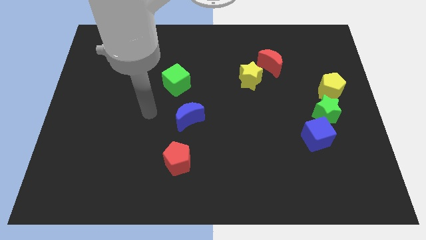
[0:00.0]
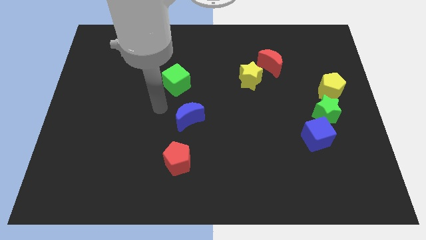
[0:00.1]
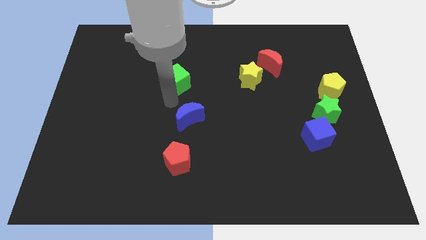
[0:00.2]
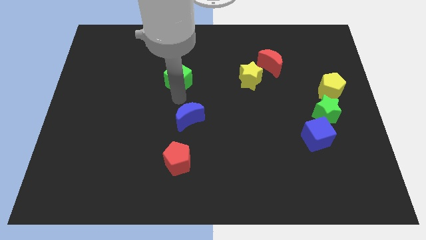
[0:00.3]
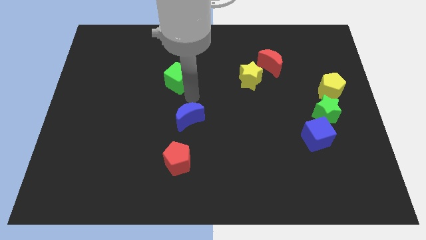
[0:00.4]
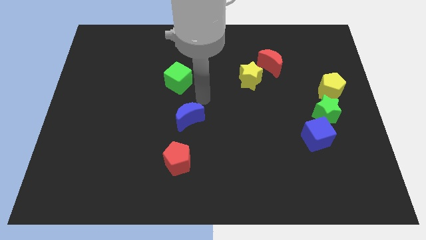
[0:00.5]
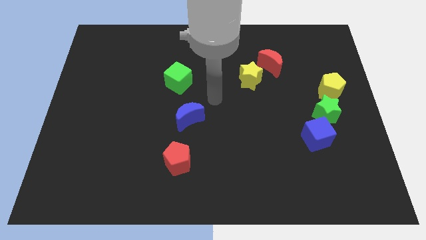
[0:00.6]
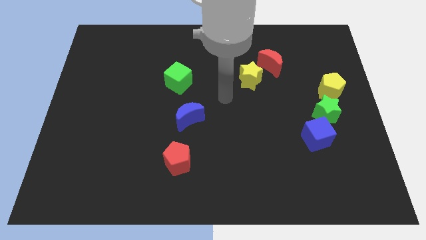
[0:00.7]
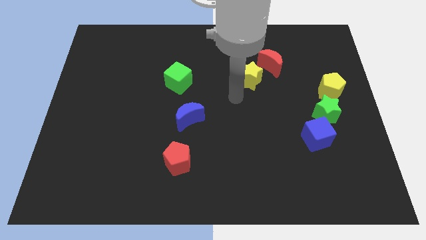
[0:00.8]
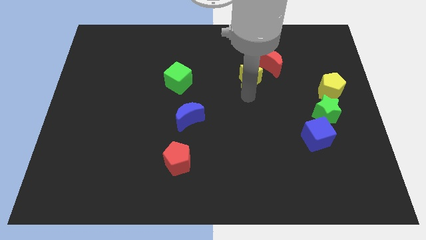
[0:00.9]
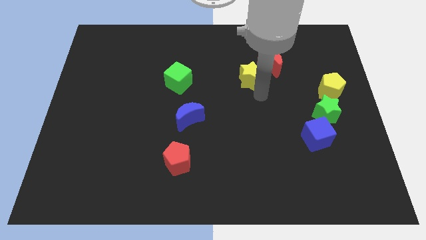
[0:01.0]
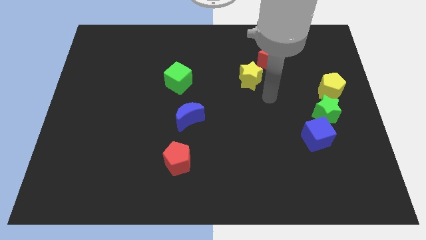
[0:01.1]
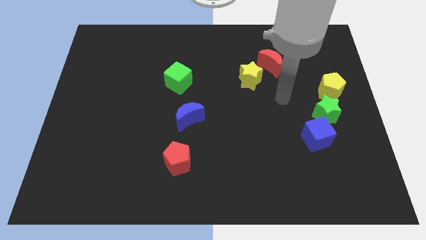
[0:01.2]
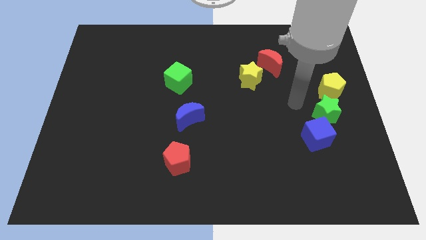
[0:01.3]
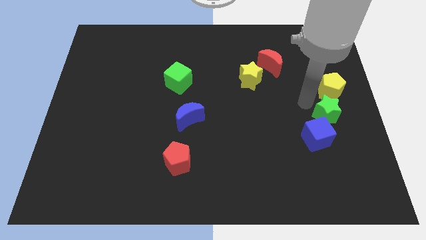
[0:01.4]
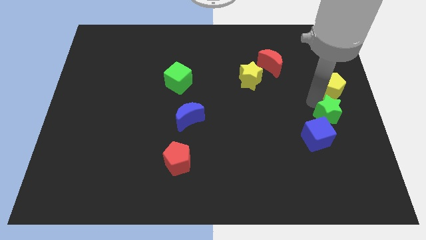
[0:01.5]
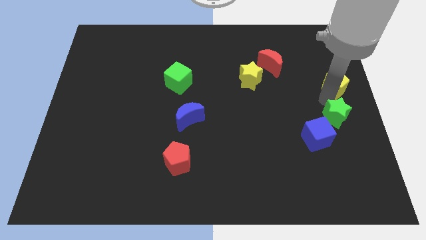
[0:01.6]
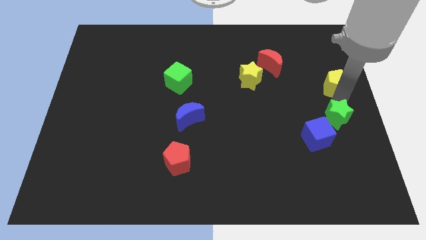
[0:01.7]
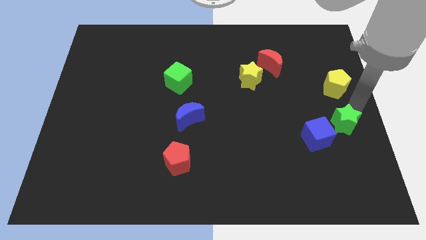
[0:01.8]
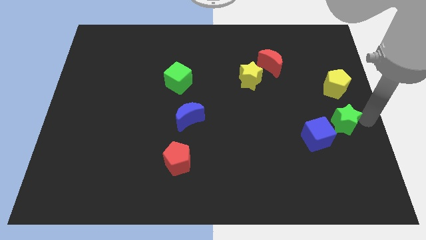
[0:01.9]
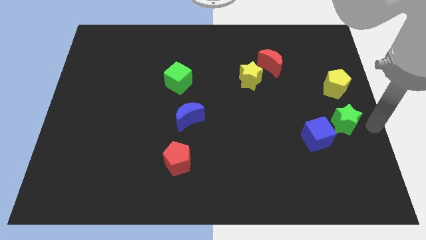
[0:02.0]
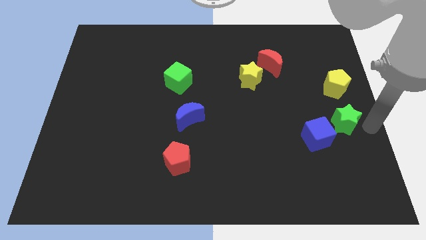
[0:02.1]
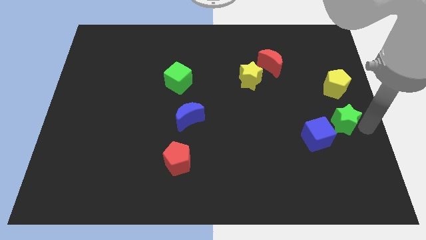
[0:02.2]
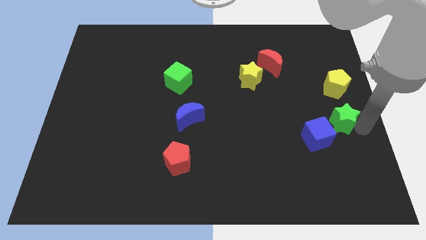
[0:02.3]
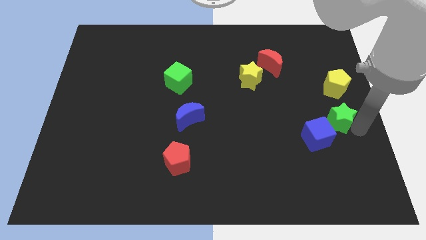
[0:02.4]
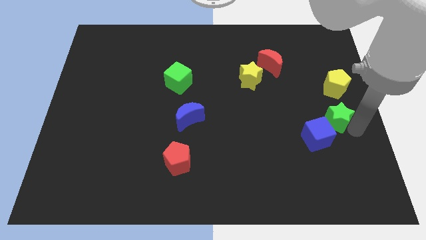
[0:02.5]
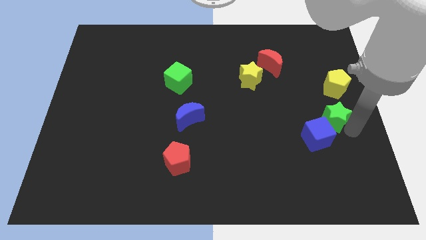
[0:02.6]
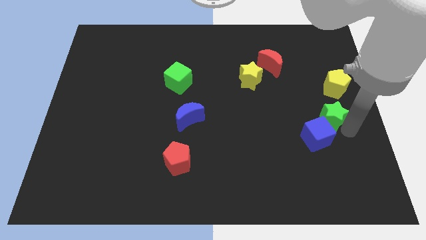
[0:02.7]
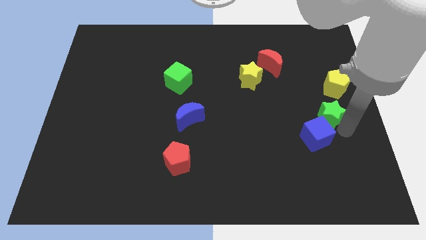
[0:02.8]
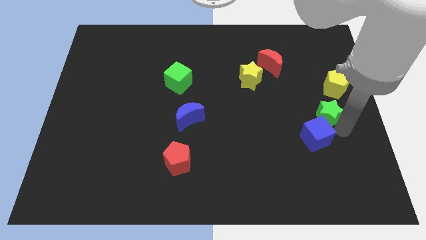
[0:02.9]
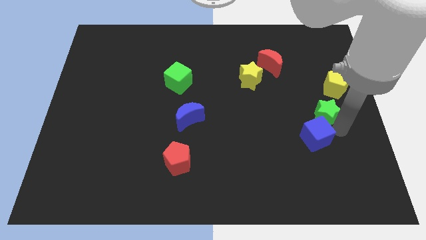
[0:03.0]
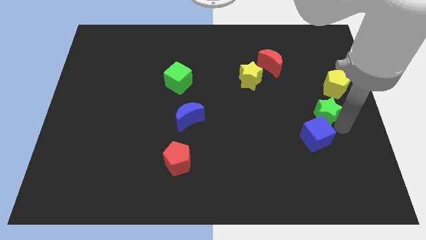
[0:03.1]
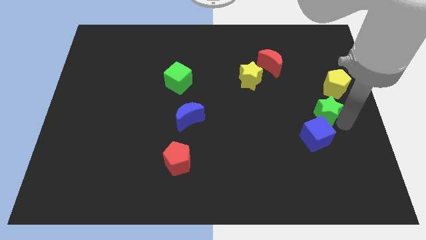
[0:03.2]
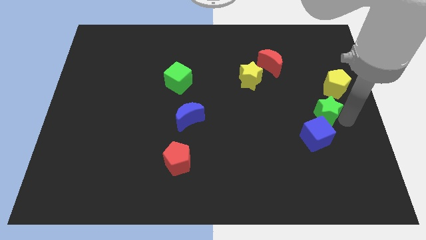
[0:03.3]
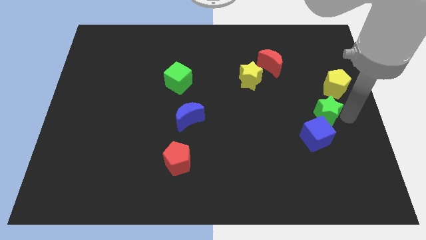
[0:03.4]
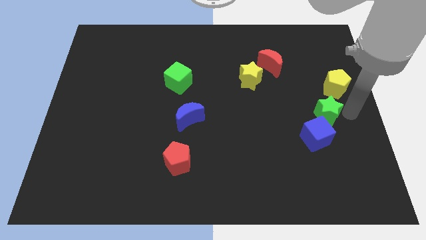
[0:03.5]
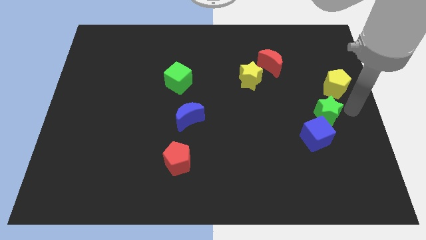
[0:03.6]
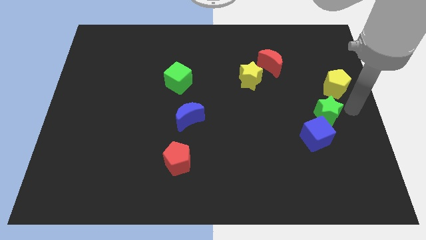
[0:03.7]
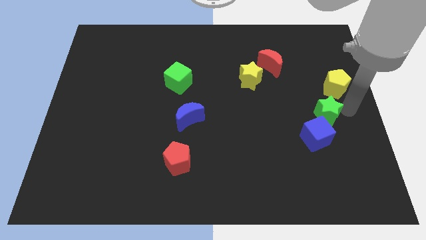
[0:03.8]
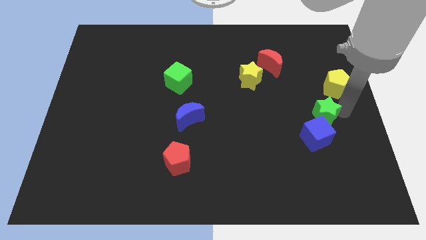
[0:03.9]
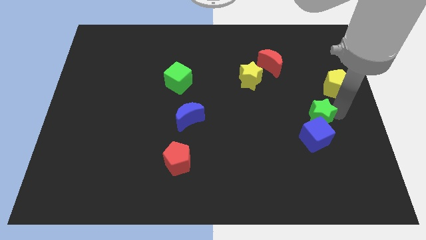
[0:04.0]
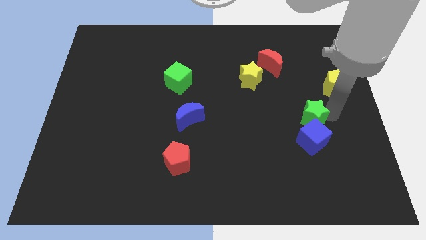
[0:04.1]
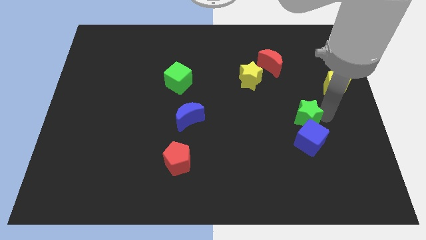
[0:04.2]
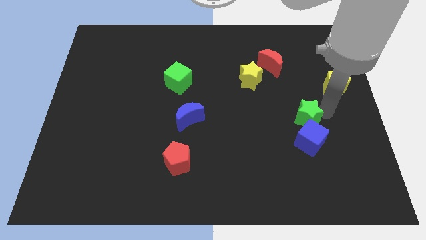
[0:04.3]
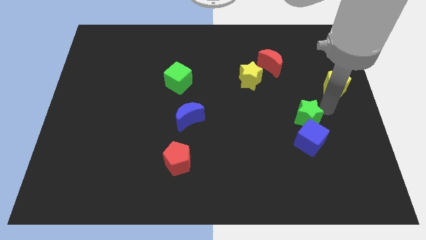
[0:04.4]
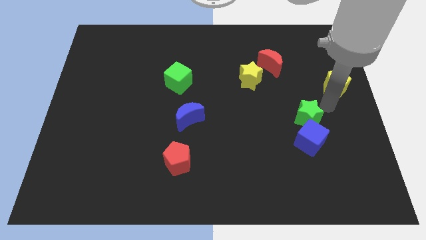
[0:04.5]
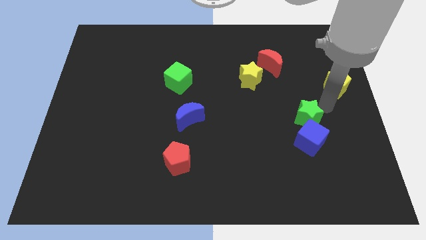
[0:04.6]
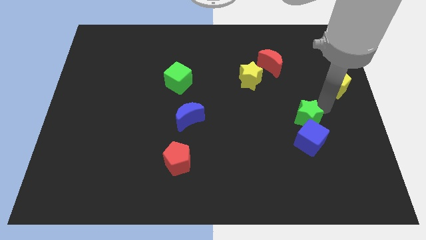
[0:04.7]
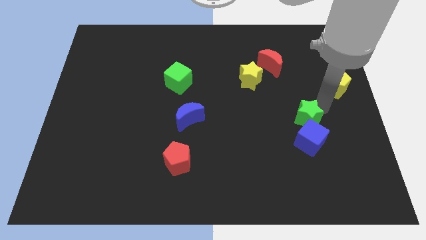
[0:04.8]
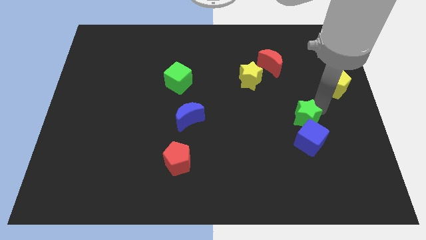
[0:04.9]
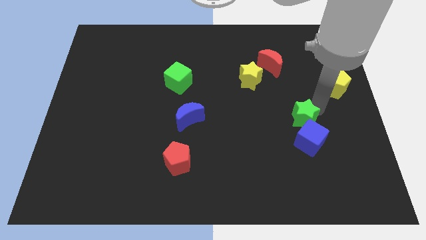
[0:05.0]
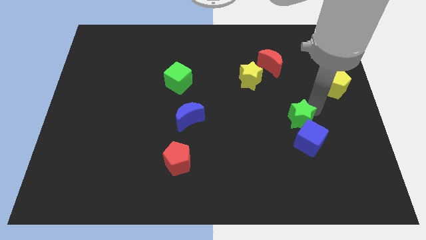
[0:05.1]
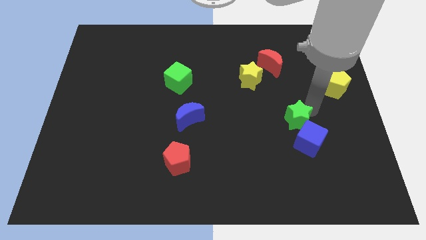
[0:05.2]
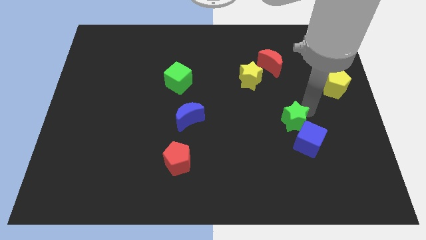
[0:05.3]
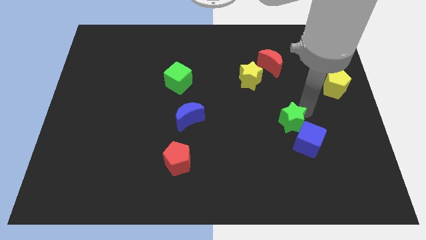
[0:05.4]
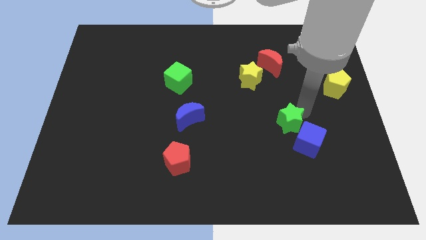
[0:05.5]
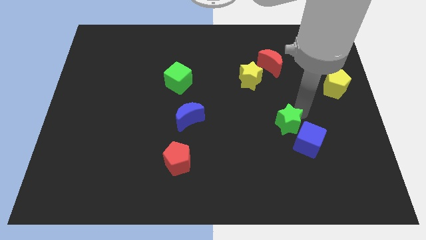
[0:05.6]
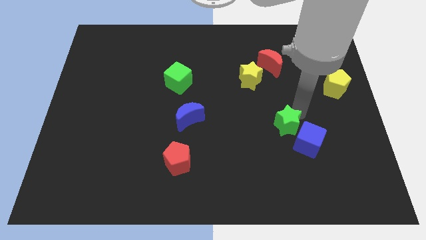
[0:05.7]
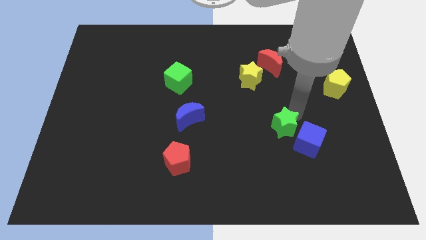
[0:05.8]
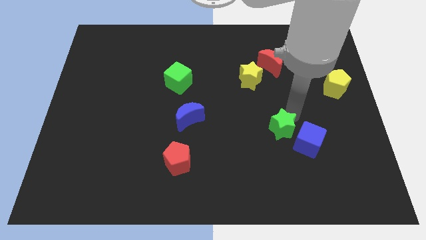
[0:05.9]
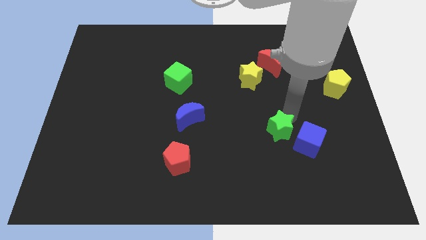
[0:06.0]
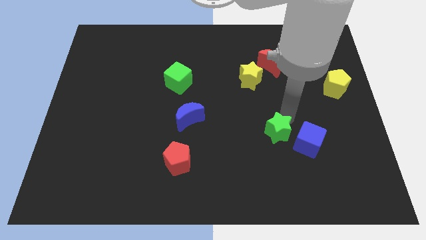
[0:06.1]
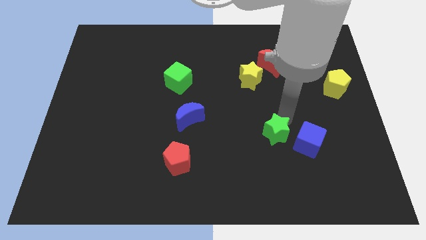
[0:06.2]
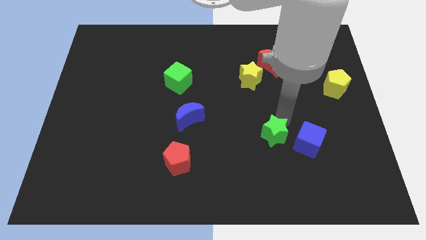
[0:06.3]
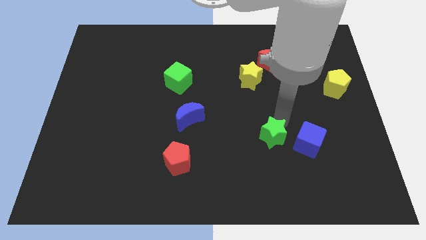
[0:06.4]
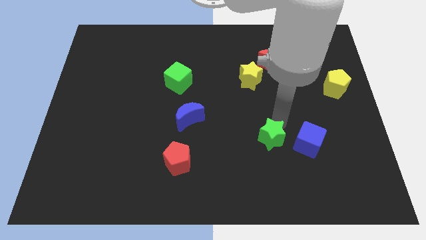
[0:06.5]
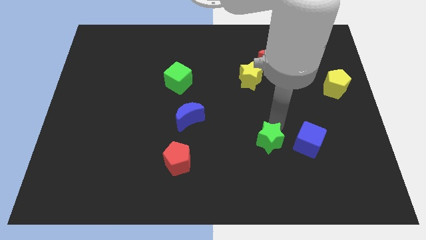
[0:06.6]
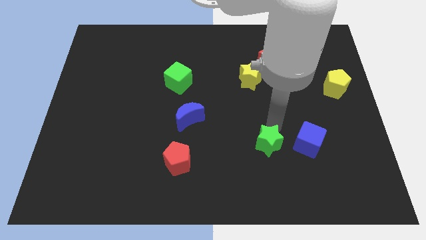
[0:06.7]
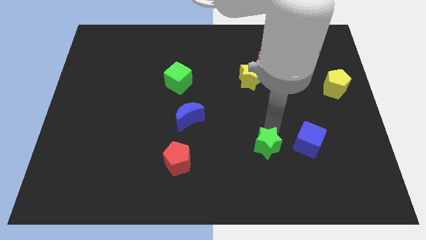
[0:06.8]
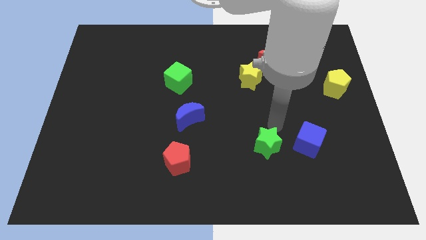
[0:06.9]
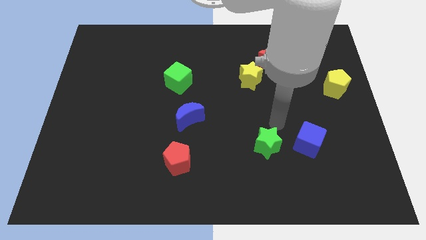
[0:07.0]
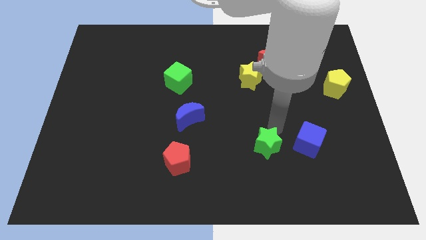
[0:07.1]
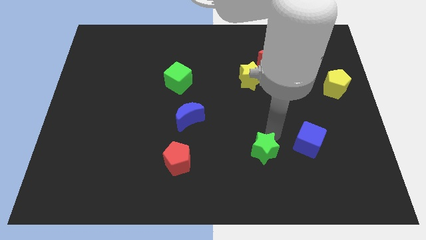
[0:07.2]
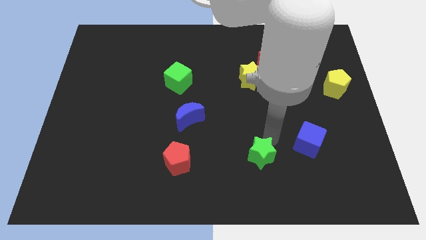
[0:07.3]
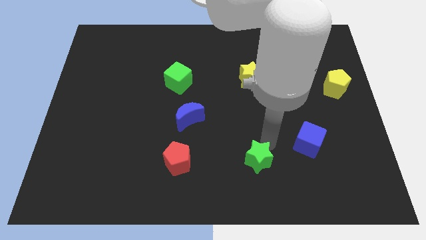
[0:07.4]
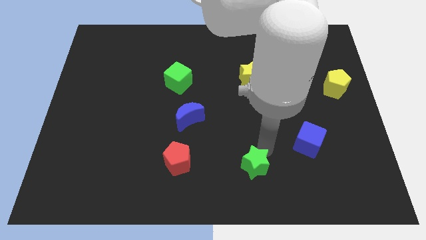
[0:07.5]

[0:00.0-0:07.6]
put the green star to the bottom
